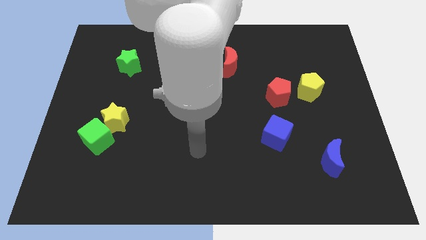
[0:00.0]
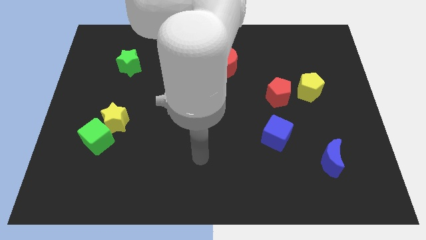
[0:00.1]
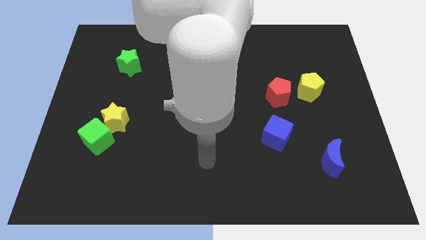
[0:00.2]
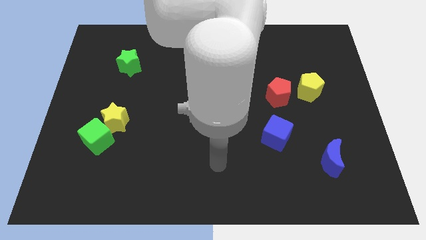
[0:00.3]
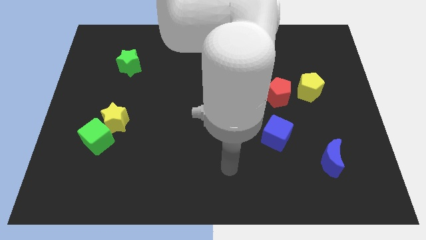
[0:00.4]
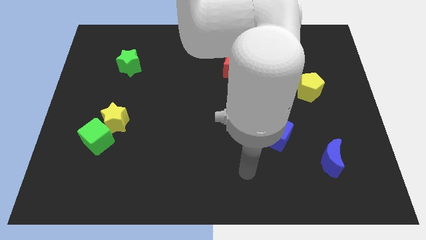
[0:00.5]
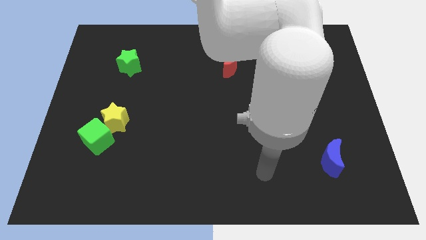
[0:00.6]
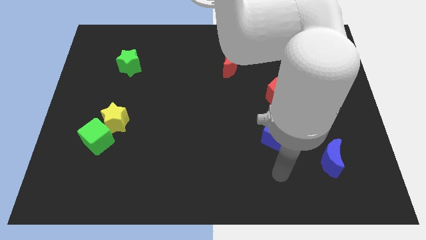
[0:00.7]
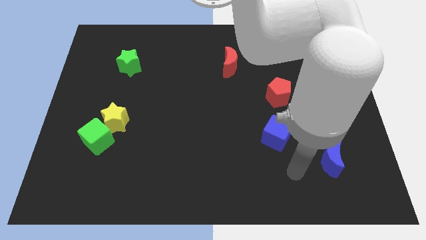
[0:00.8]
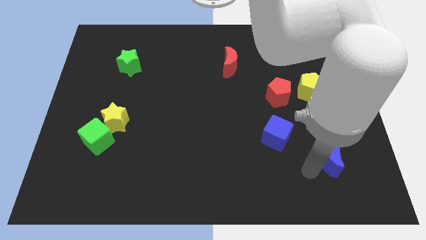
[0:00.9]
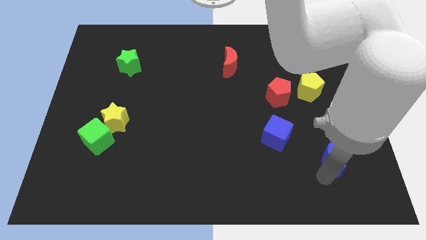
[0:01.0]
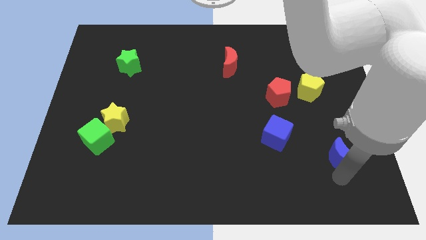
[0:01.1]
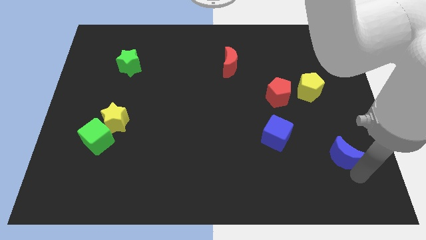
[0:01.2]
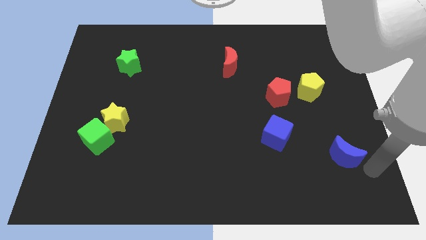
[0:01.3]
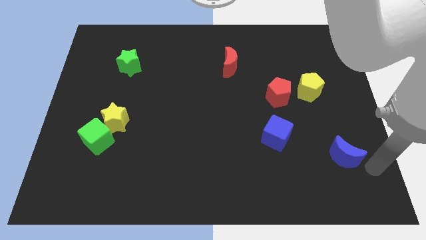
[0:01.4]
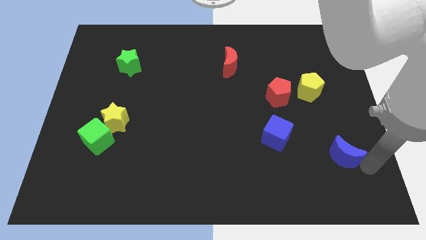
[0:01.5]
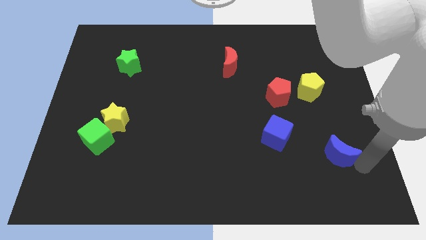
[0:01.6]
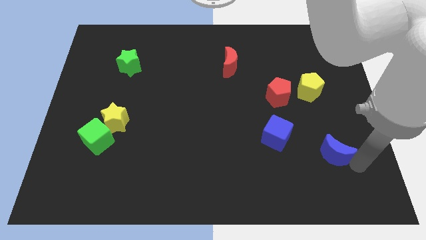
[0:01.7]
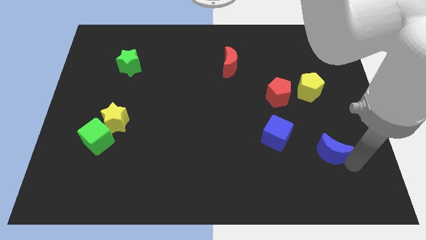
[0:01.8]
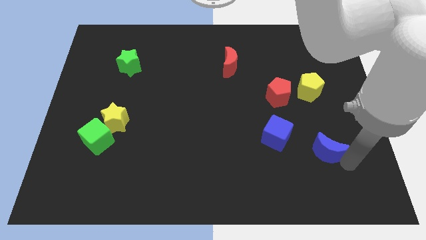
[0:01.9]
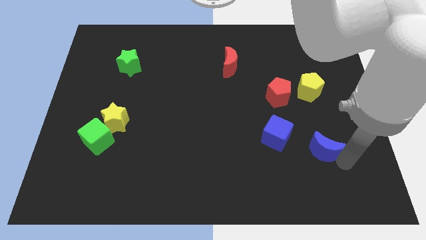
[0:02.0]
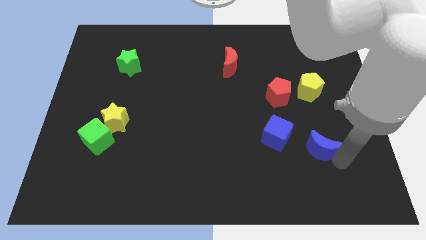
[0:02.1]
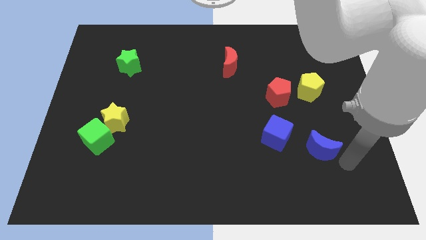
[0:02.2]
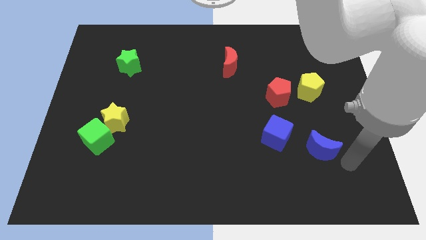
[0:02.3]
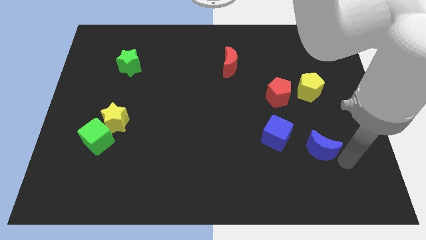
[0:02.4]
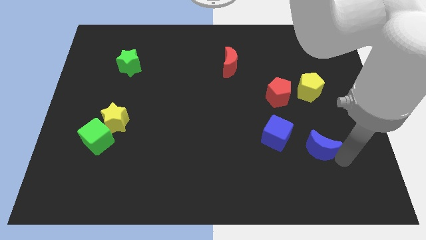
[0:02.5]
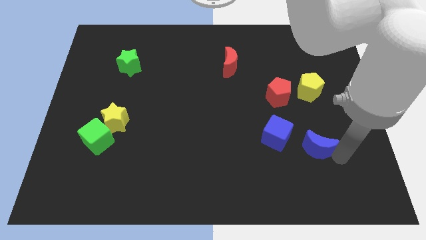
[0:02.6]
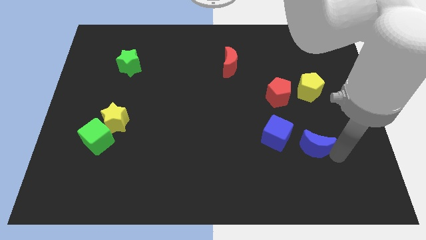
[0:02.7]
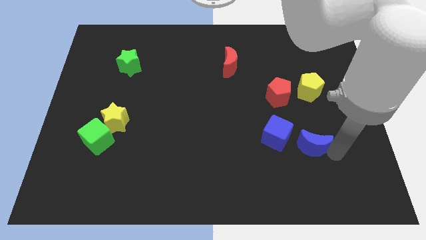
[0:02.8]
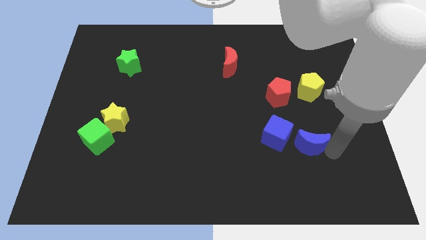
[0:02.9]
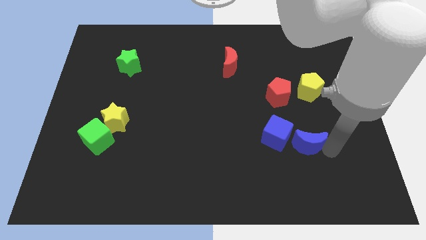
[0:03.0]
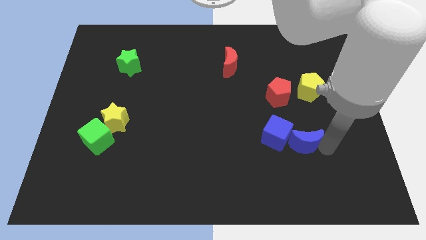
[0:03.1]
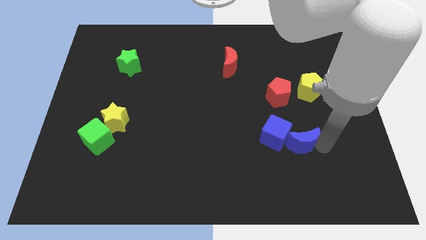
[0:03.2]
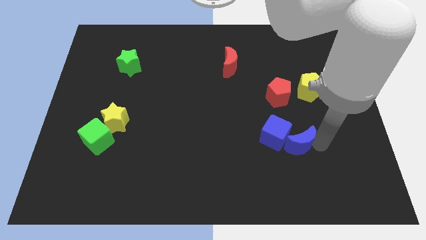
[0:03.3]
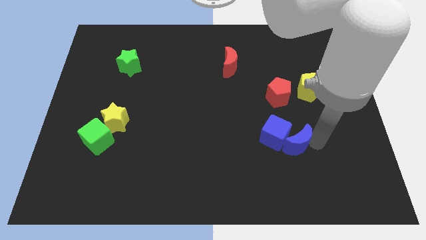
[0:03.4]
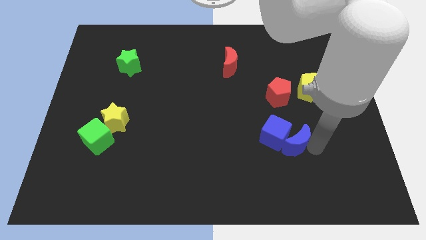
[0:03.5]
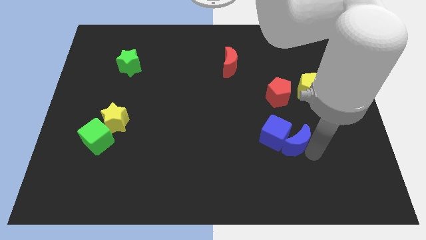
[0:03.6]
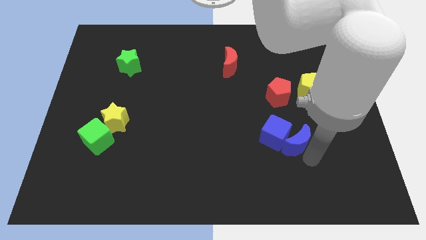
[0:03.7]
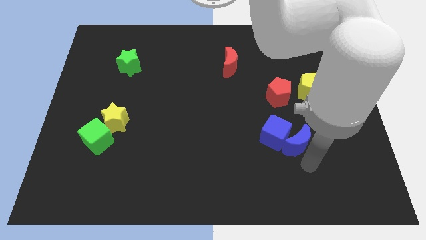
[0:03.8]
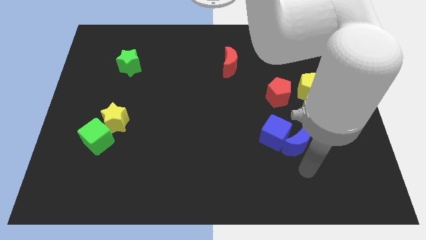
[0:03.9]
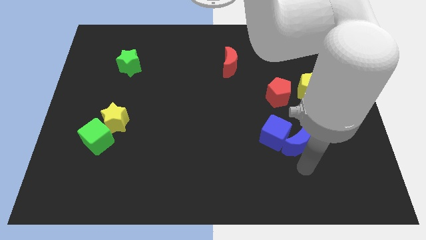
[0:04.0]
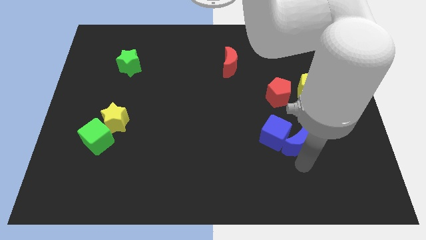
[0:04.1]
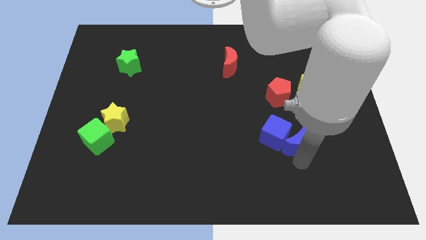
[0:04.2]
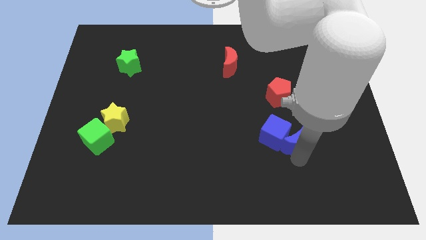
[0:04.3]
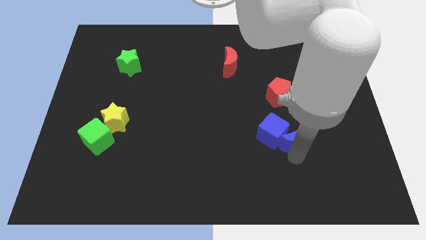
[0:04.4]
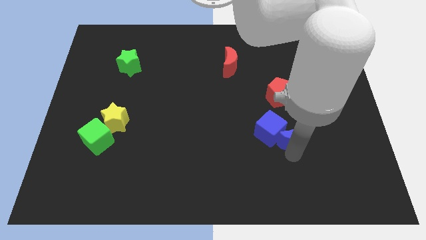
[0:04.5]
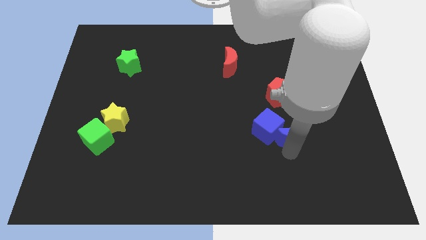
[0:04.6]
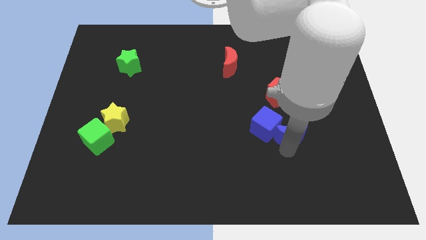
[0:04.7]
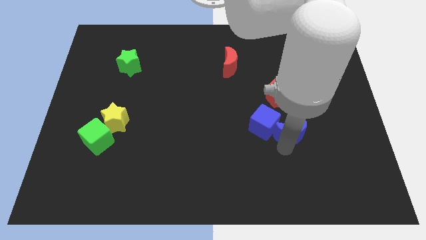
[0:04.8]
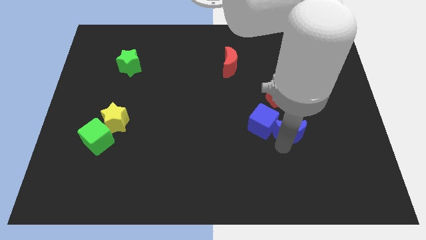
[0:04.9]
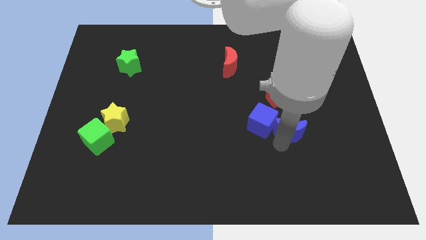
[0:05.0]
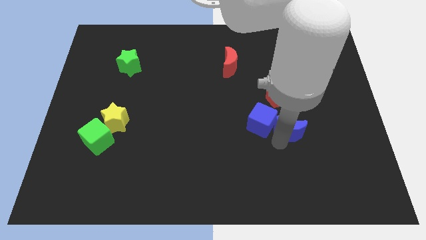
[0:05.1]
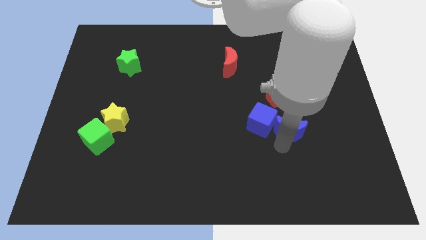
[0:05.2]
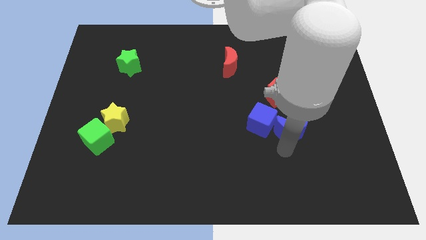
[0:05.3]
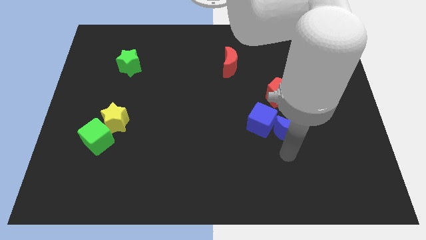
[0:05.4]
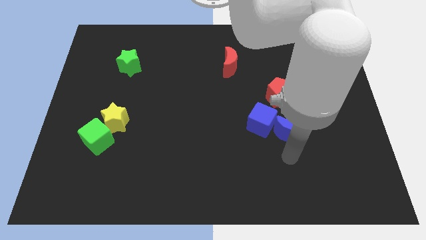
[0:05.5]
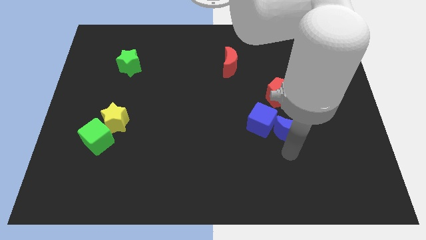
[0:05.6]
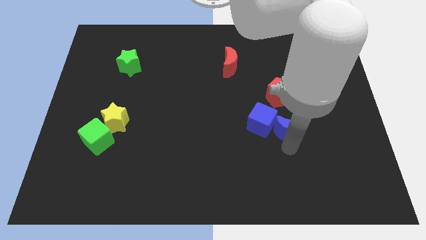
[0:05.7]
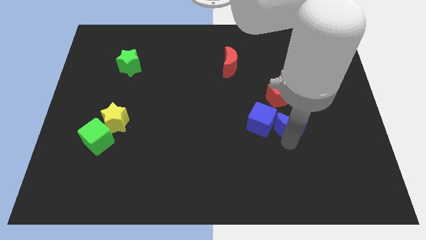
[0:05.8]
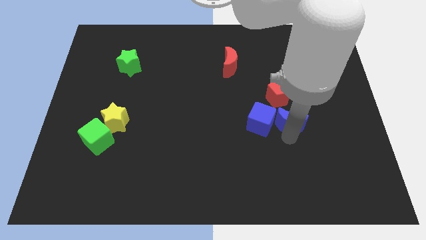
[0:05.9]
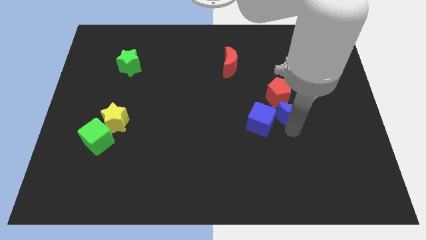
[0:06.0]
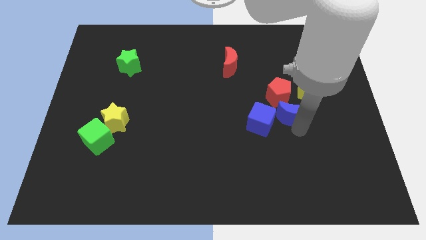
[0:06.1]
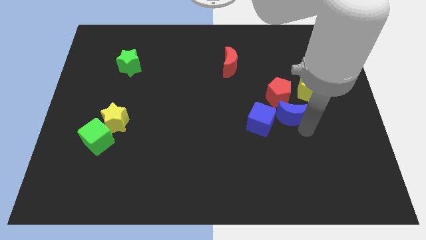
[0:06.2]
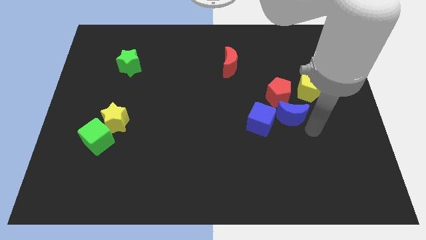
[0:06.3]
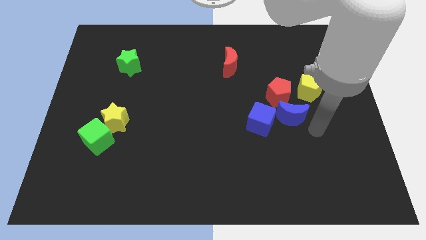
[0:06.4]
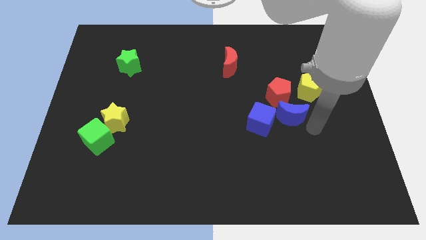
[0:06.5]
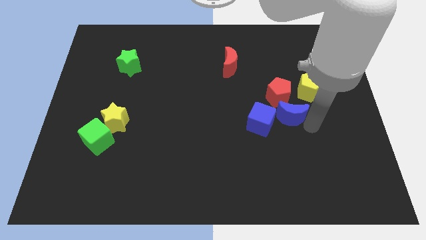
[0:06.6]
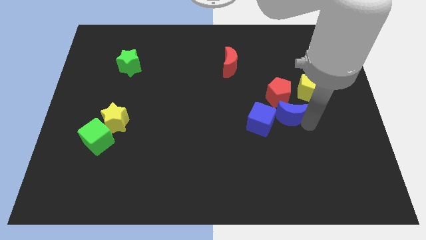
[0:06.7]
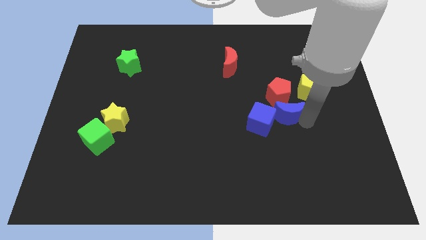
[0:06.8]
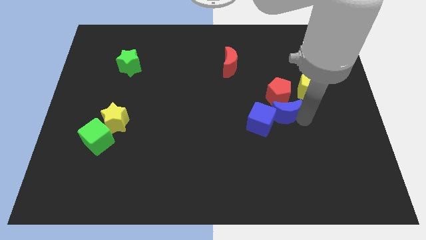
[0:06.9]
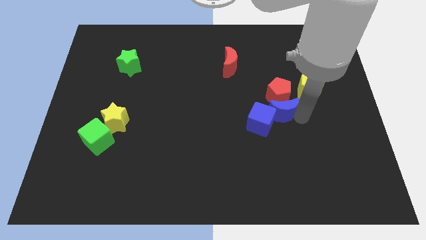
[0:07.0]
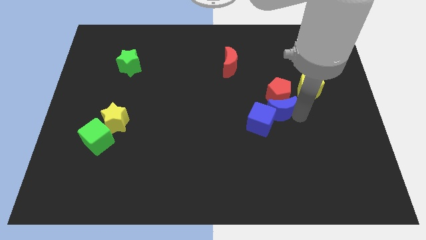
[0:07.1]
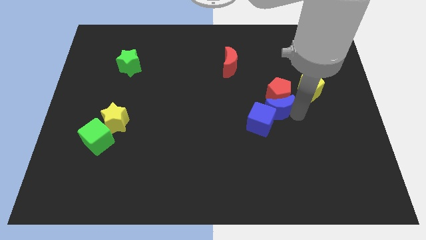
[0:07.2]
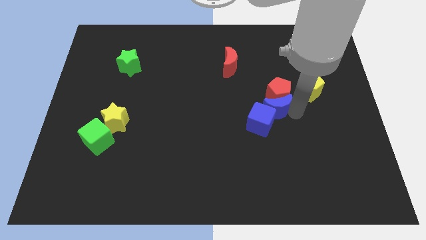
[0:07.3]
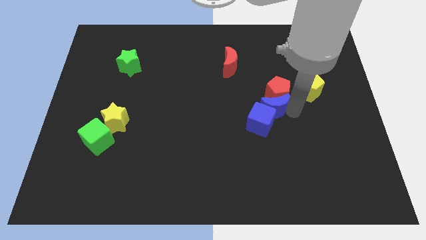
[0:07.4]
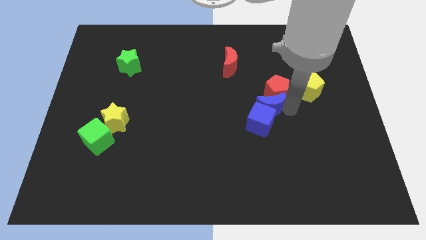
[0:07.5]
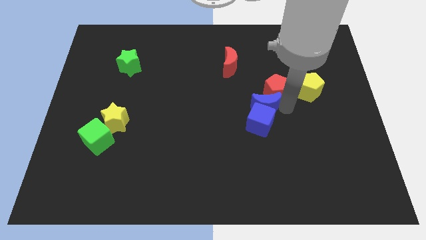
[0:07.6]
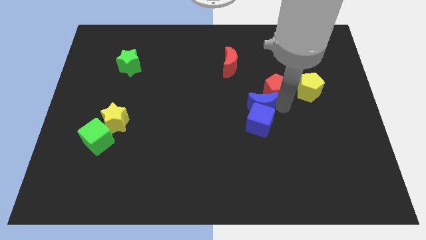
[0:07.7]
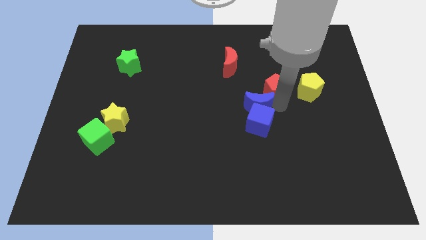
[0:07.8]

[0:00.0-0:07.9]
push the blue moon diagonally up and to the left
